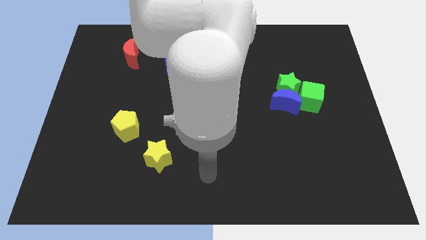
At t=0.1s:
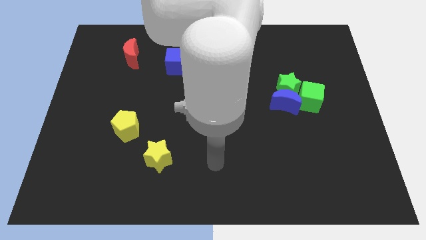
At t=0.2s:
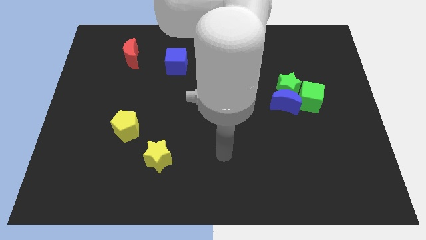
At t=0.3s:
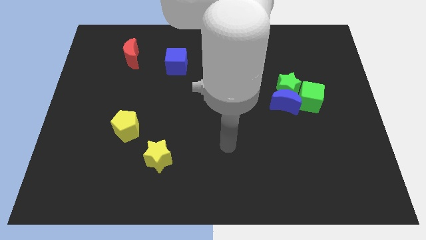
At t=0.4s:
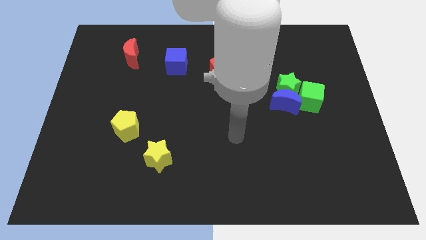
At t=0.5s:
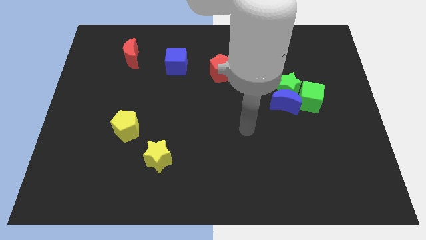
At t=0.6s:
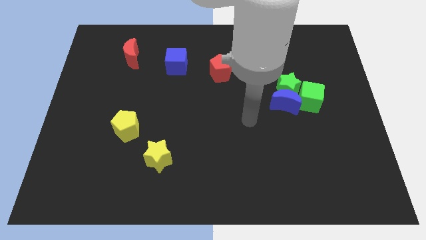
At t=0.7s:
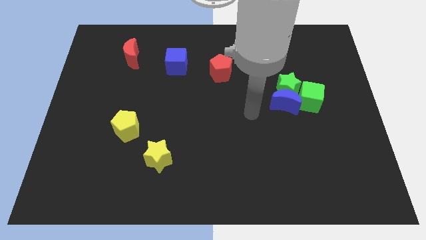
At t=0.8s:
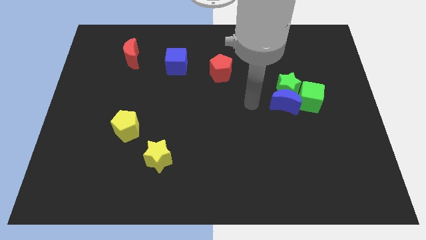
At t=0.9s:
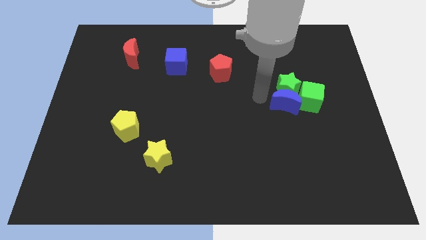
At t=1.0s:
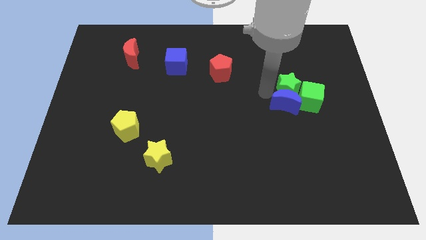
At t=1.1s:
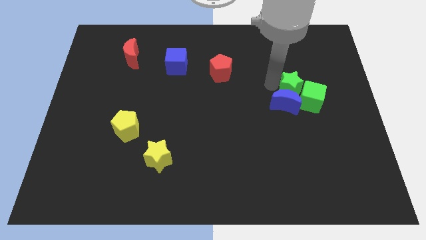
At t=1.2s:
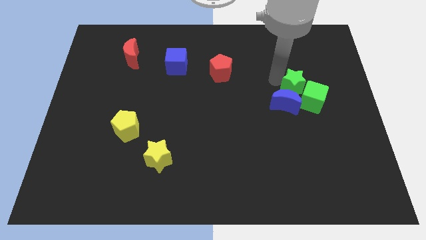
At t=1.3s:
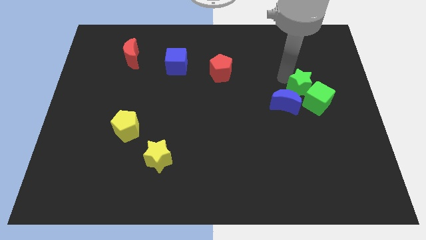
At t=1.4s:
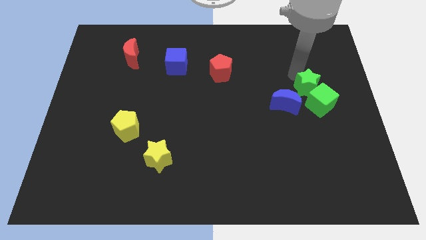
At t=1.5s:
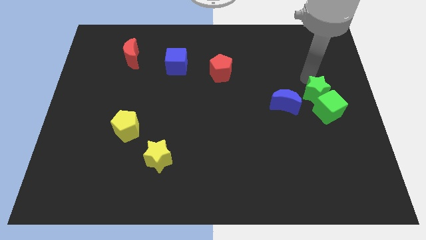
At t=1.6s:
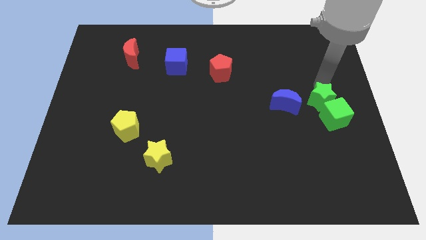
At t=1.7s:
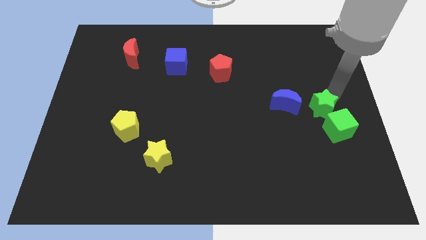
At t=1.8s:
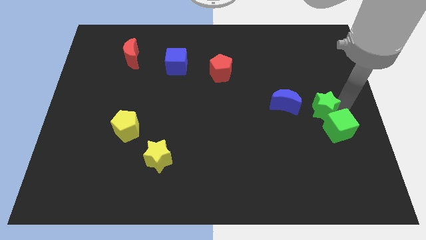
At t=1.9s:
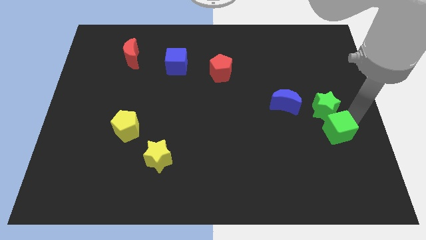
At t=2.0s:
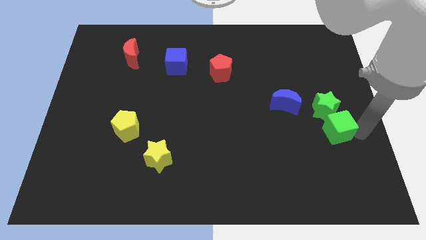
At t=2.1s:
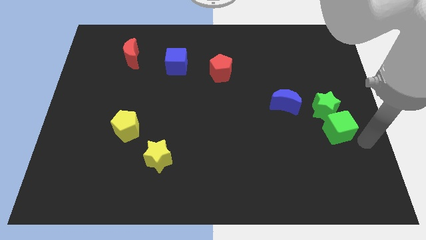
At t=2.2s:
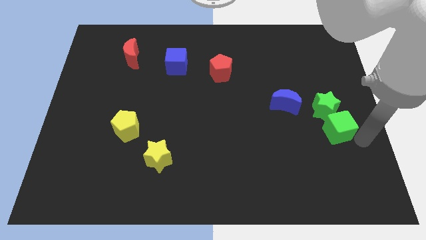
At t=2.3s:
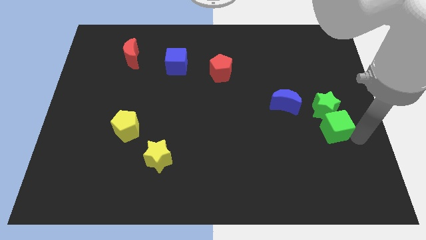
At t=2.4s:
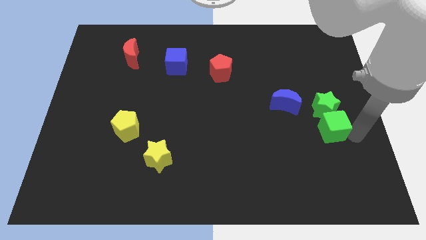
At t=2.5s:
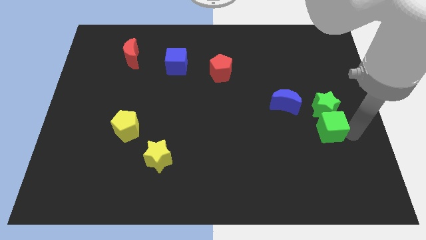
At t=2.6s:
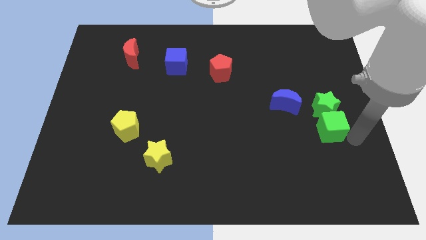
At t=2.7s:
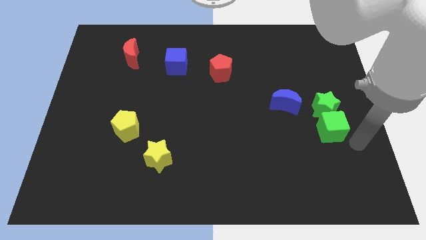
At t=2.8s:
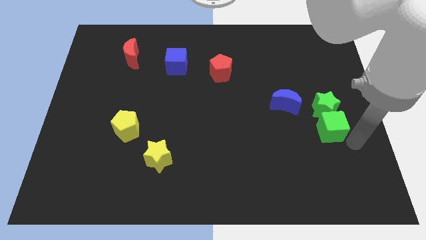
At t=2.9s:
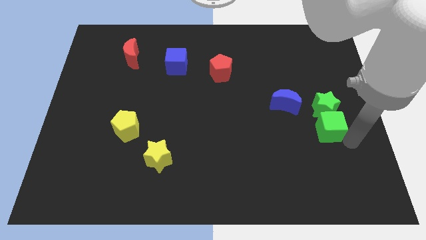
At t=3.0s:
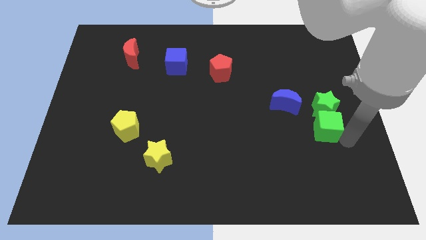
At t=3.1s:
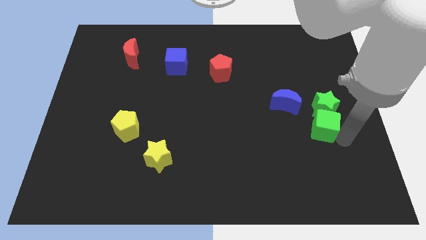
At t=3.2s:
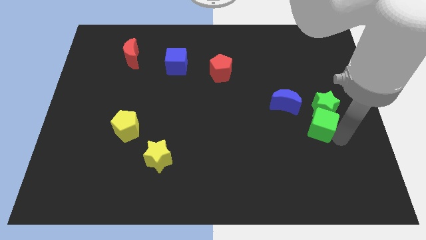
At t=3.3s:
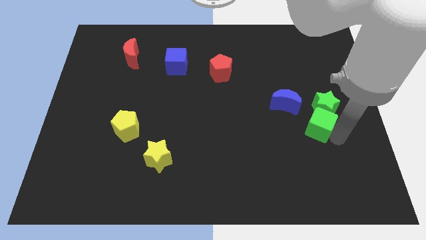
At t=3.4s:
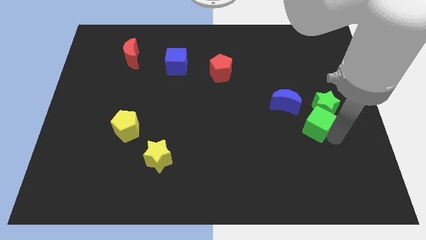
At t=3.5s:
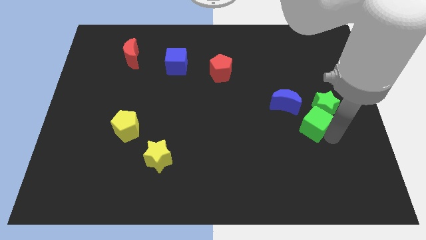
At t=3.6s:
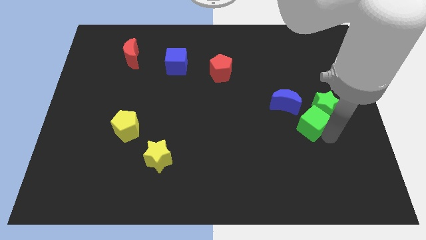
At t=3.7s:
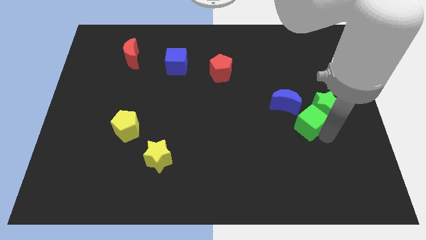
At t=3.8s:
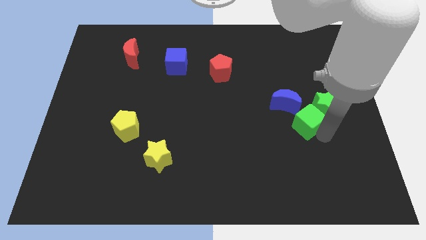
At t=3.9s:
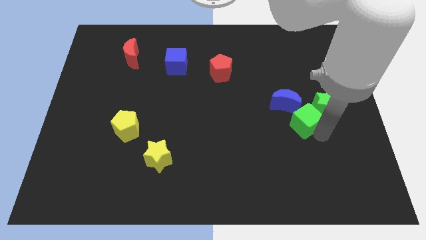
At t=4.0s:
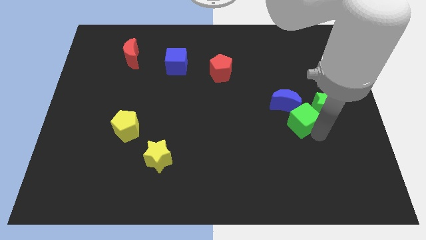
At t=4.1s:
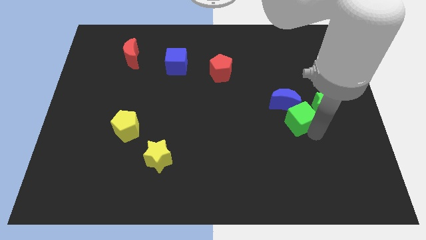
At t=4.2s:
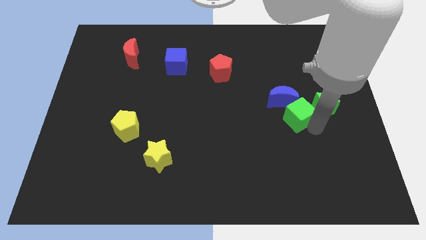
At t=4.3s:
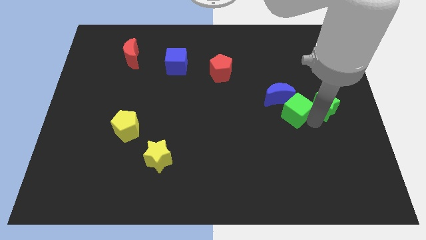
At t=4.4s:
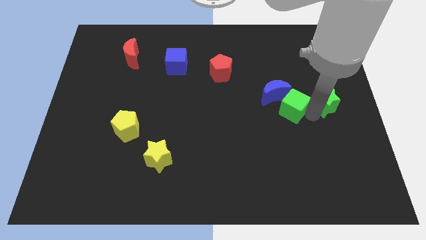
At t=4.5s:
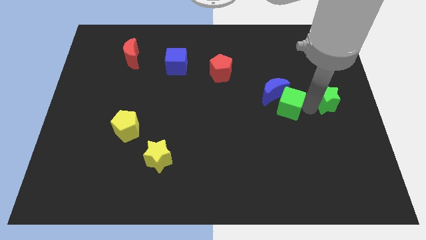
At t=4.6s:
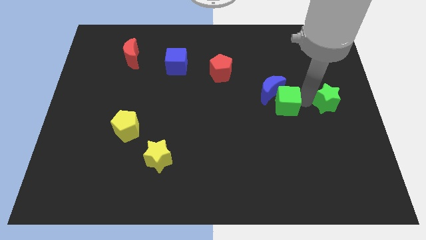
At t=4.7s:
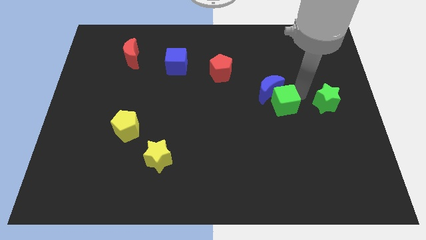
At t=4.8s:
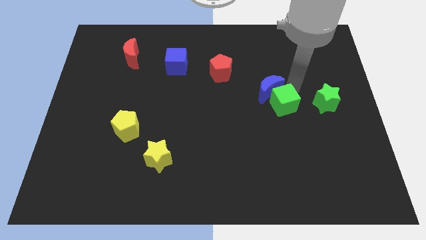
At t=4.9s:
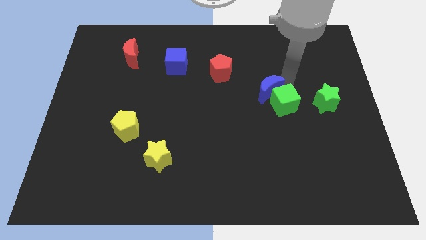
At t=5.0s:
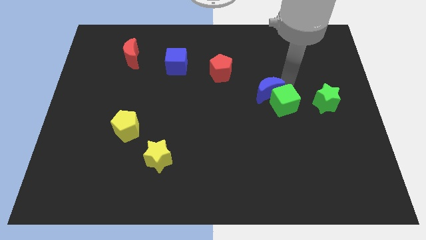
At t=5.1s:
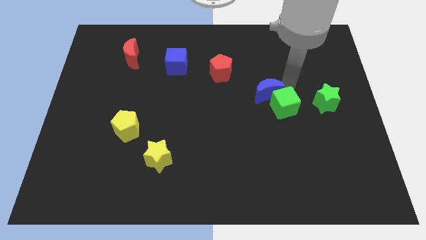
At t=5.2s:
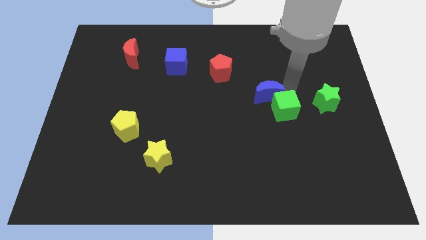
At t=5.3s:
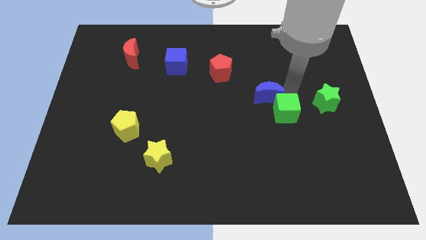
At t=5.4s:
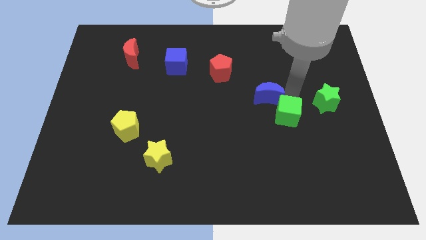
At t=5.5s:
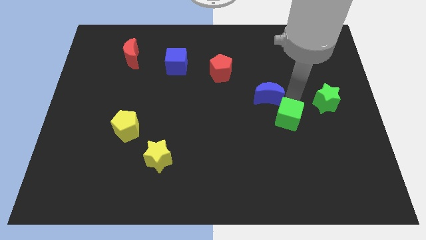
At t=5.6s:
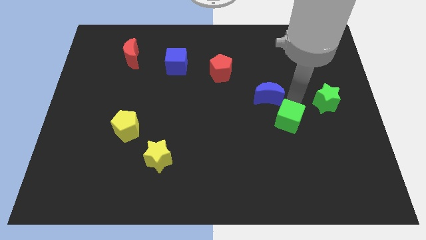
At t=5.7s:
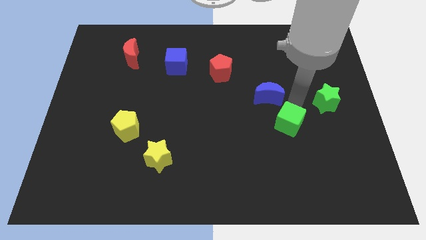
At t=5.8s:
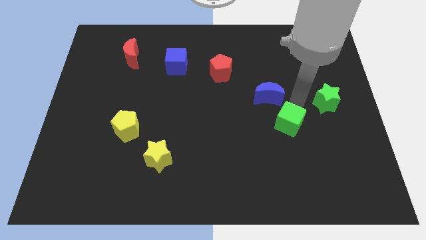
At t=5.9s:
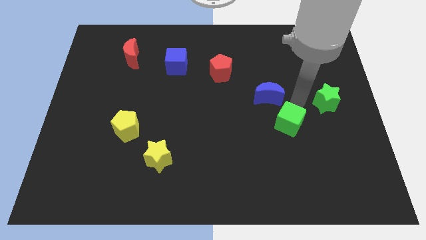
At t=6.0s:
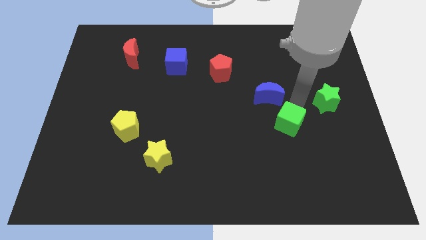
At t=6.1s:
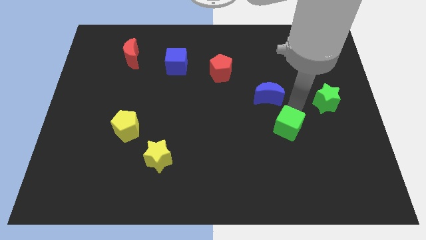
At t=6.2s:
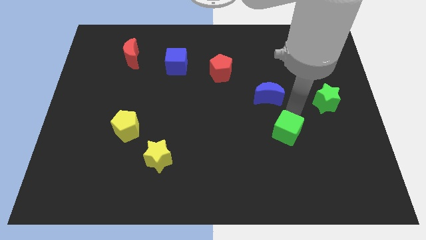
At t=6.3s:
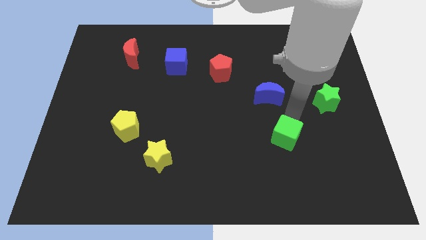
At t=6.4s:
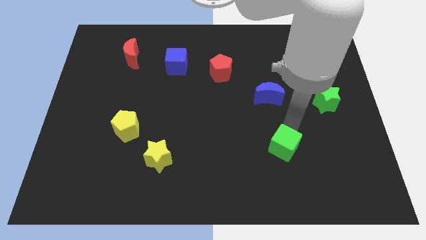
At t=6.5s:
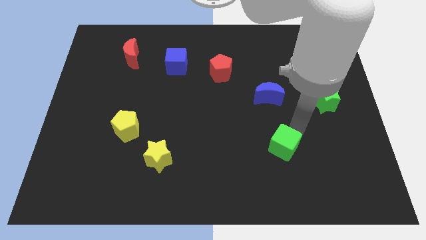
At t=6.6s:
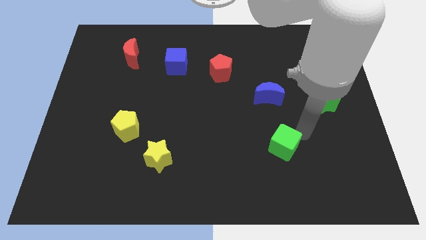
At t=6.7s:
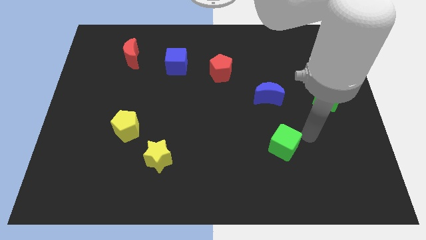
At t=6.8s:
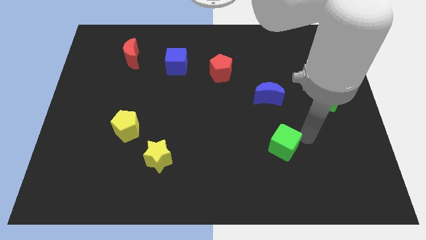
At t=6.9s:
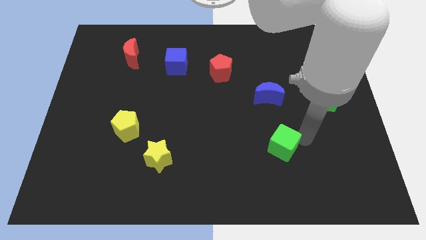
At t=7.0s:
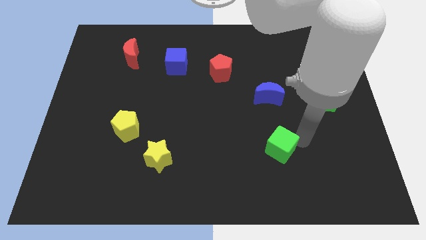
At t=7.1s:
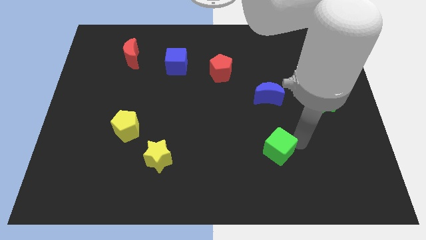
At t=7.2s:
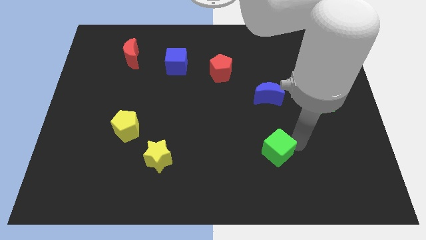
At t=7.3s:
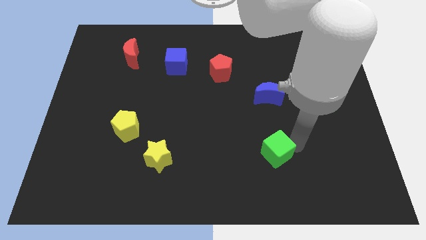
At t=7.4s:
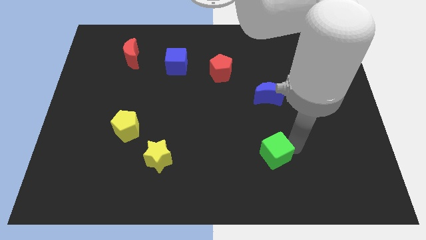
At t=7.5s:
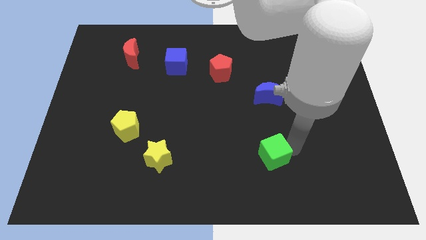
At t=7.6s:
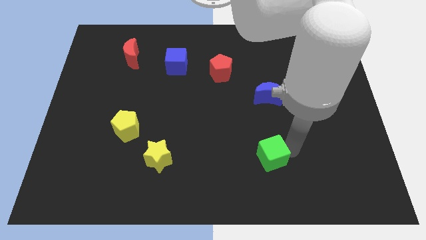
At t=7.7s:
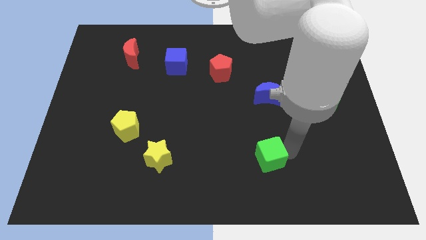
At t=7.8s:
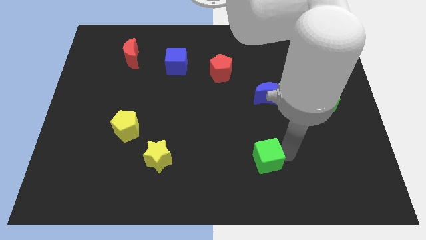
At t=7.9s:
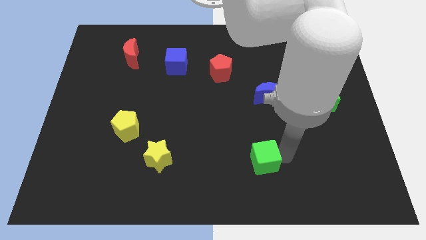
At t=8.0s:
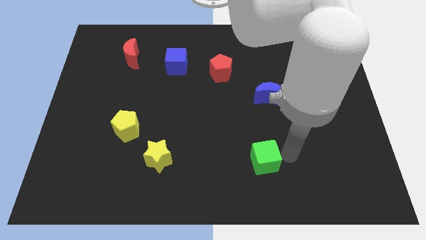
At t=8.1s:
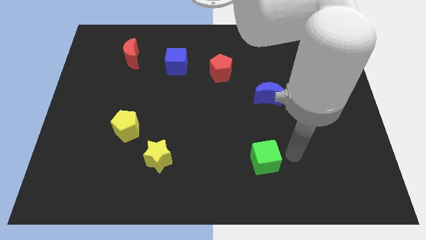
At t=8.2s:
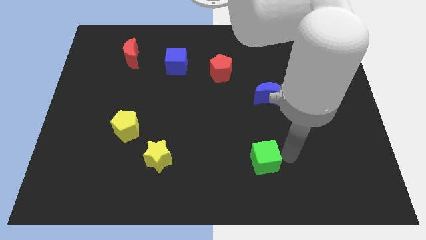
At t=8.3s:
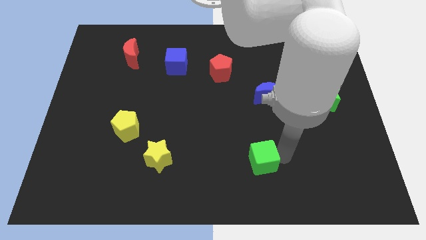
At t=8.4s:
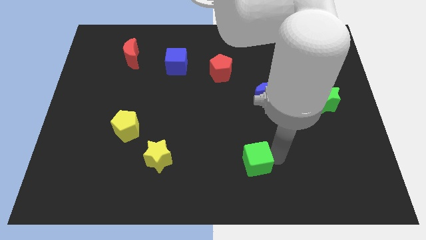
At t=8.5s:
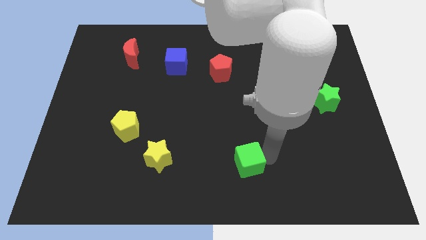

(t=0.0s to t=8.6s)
move the green cube to the bottom
